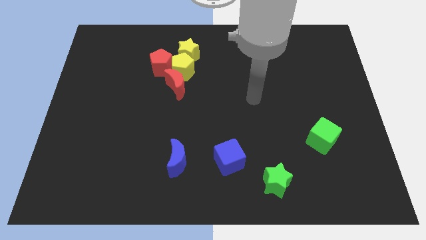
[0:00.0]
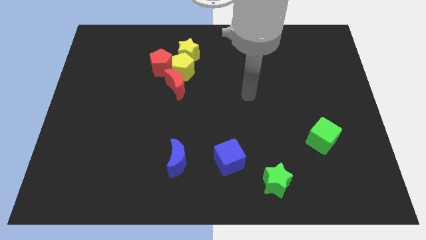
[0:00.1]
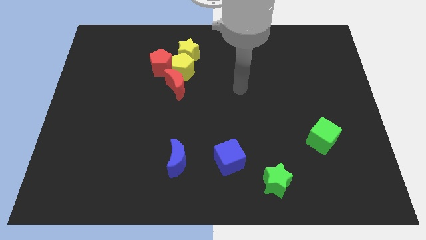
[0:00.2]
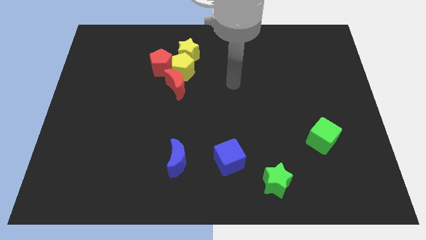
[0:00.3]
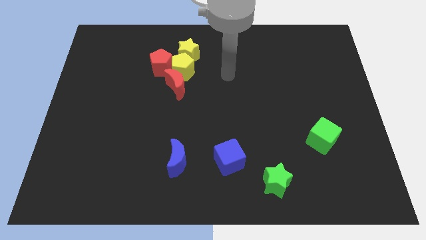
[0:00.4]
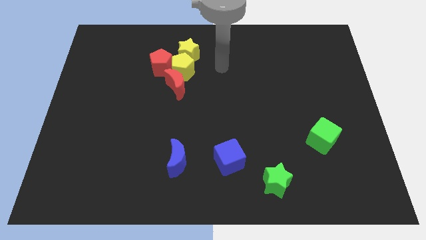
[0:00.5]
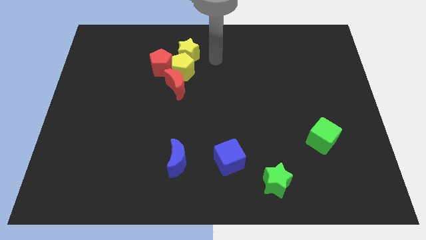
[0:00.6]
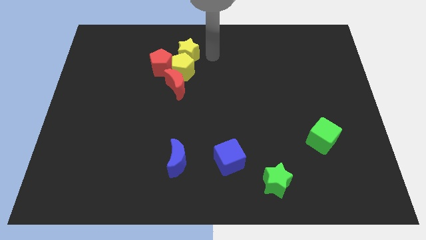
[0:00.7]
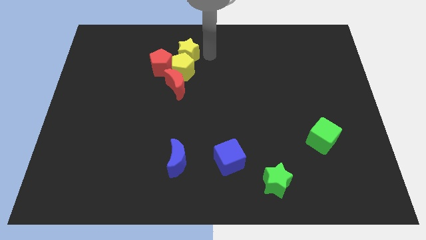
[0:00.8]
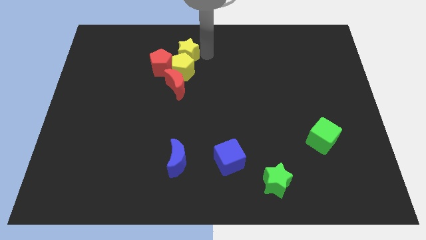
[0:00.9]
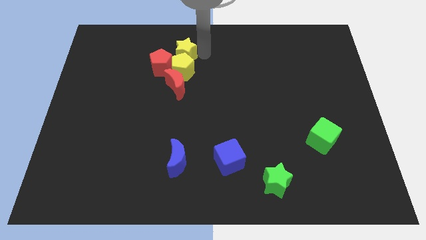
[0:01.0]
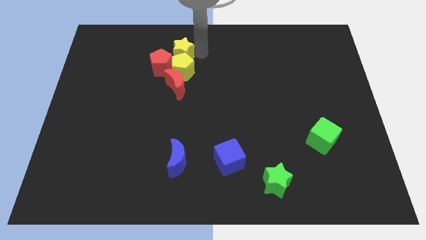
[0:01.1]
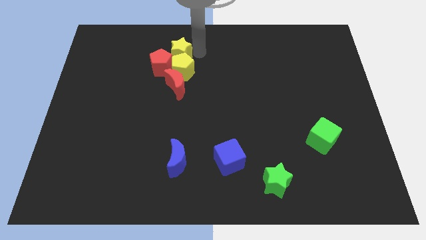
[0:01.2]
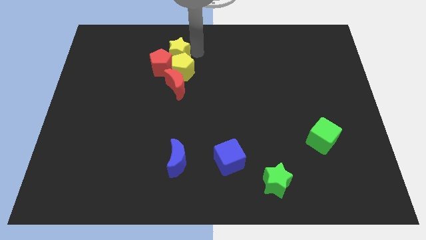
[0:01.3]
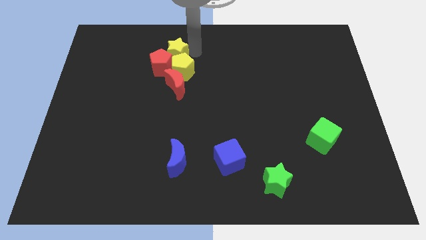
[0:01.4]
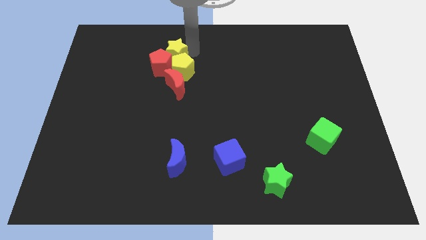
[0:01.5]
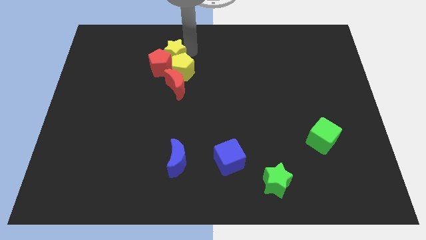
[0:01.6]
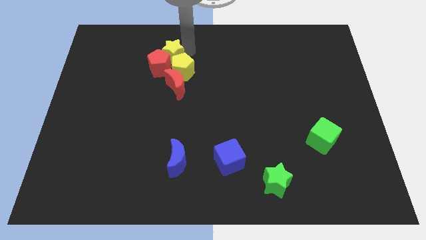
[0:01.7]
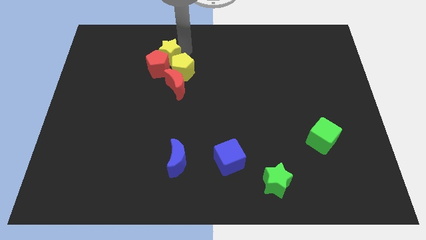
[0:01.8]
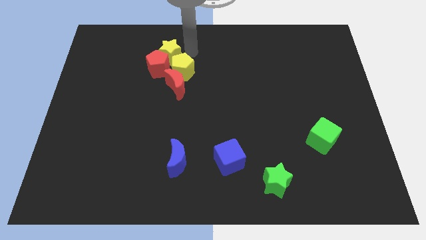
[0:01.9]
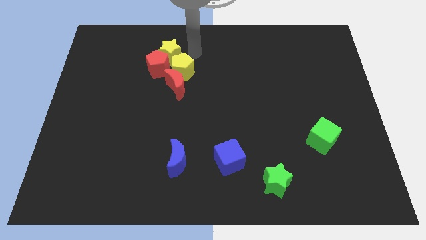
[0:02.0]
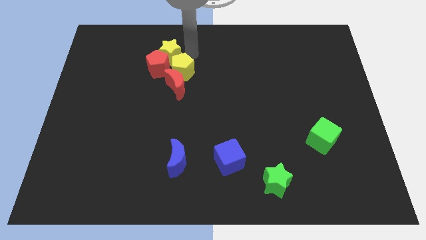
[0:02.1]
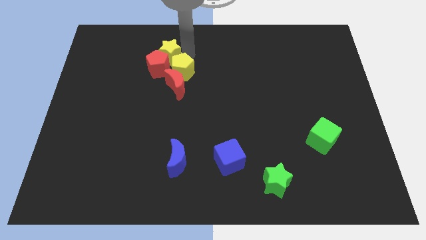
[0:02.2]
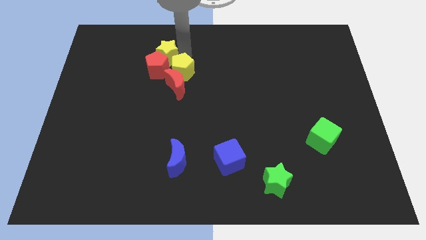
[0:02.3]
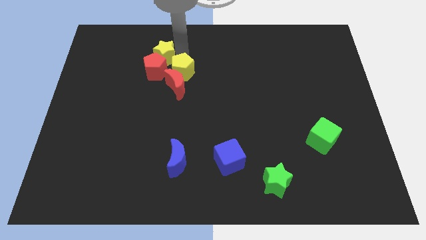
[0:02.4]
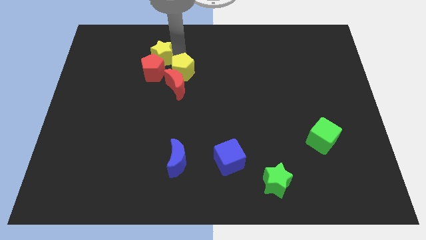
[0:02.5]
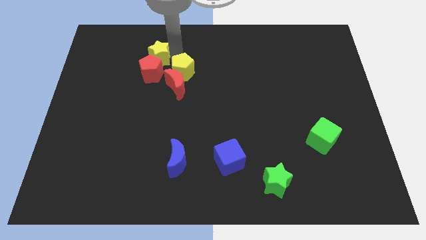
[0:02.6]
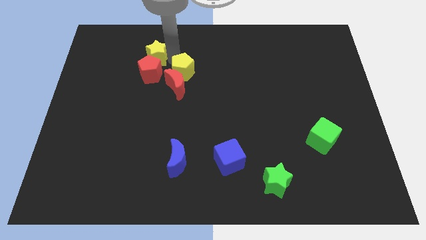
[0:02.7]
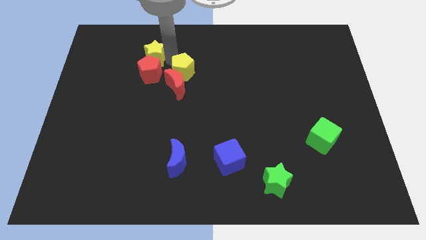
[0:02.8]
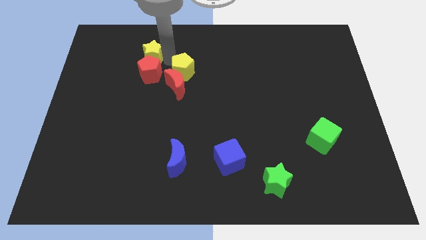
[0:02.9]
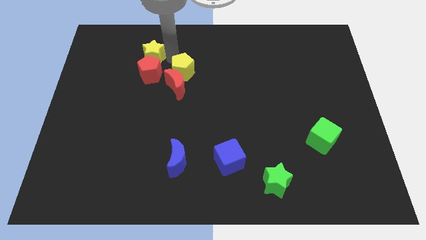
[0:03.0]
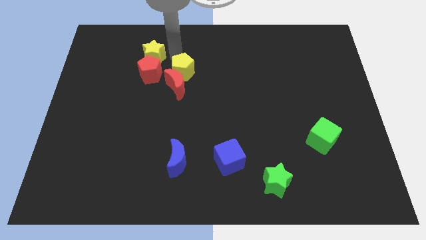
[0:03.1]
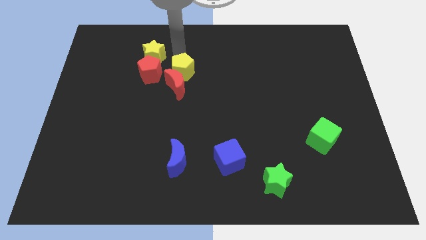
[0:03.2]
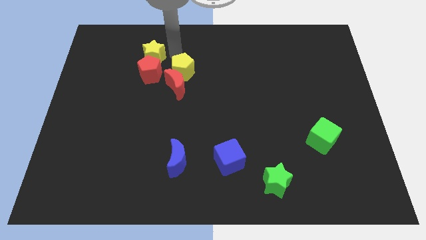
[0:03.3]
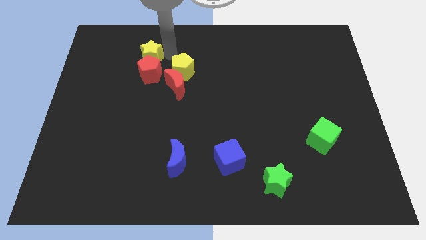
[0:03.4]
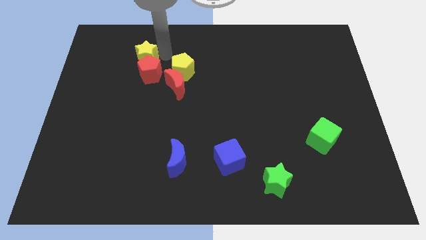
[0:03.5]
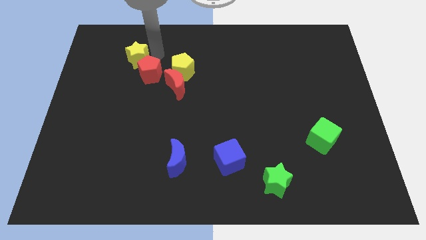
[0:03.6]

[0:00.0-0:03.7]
slightly slide the yellow star downwards and left diagonally

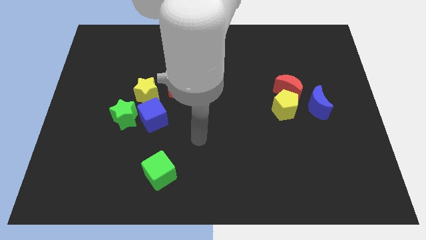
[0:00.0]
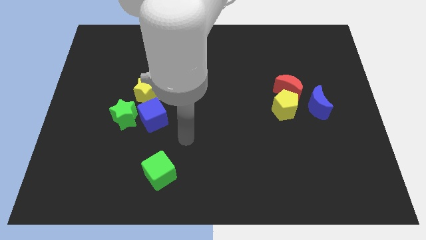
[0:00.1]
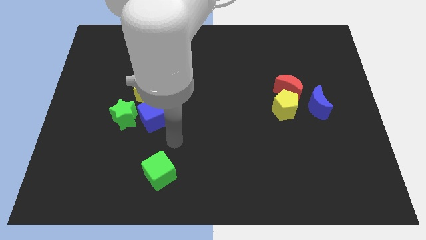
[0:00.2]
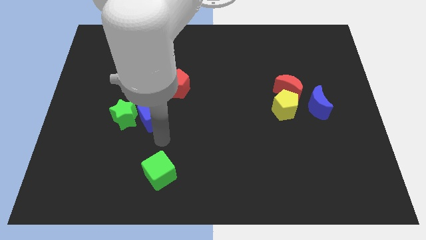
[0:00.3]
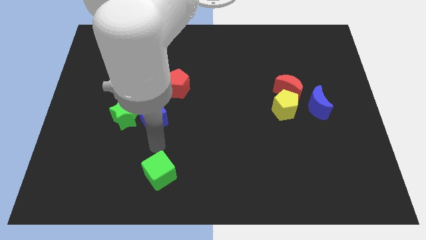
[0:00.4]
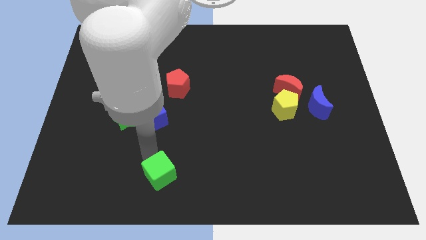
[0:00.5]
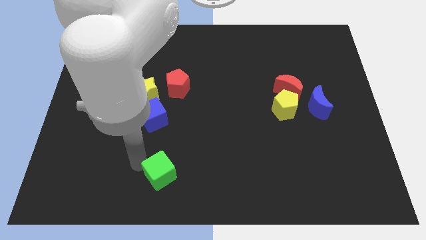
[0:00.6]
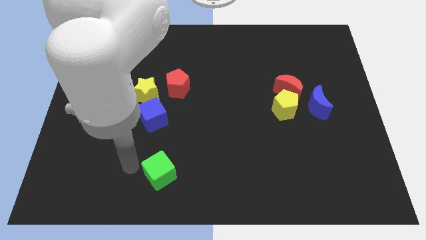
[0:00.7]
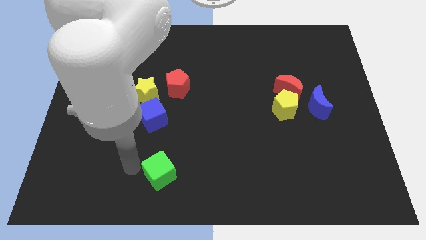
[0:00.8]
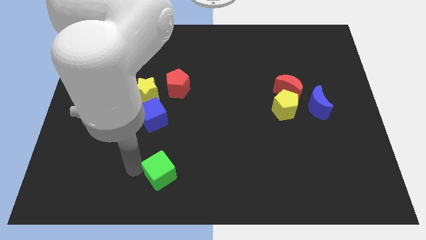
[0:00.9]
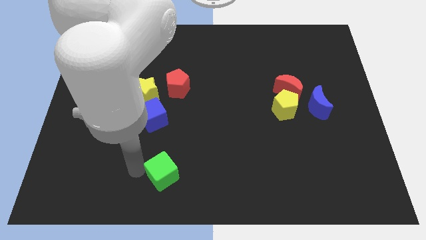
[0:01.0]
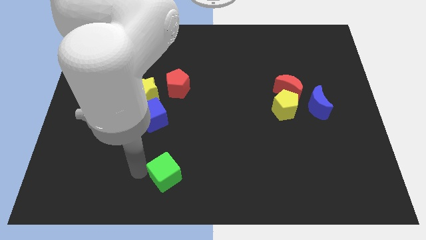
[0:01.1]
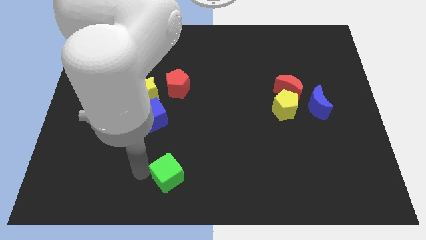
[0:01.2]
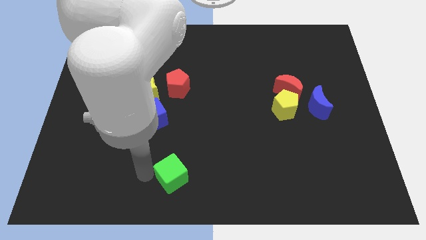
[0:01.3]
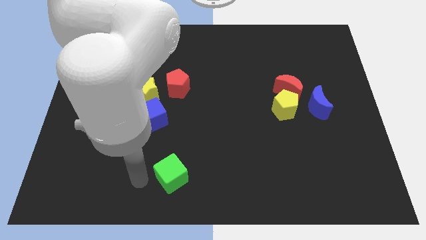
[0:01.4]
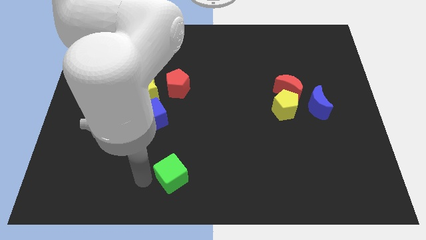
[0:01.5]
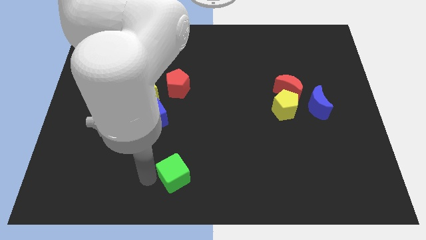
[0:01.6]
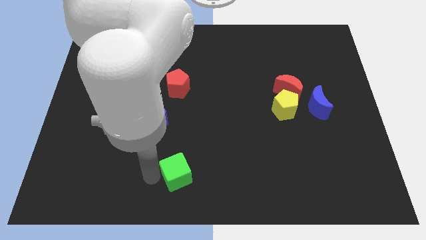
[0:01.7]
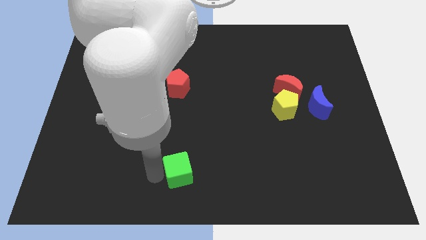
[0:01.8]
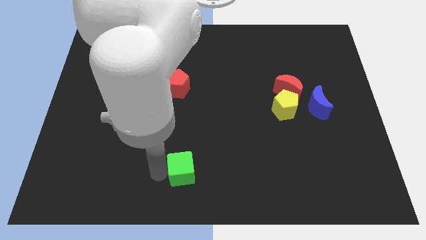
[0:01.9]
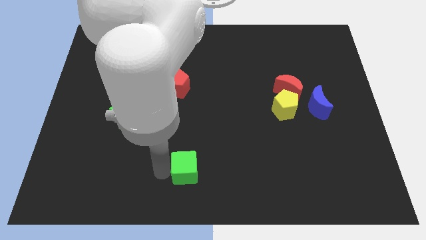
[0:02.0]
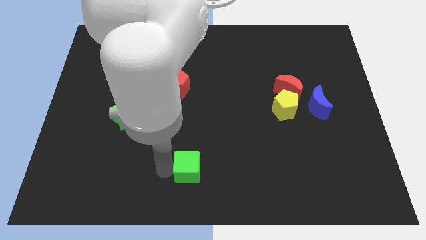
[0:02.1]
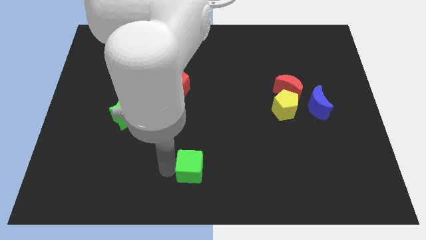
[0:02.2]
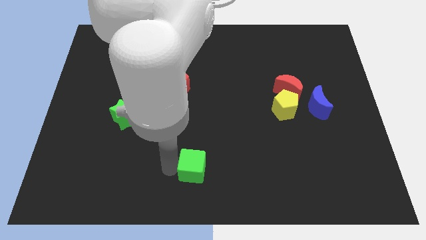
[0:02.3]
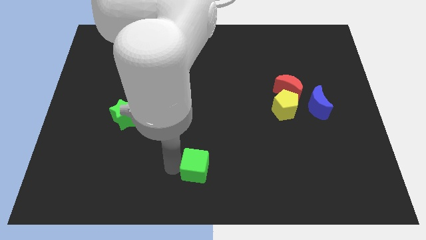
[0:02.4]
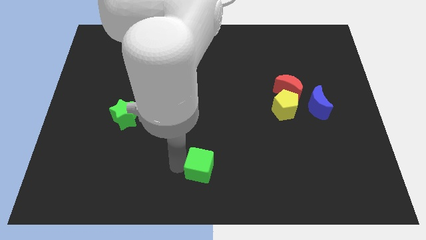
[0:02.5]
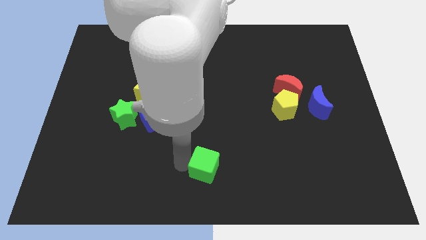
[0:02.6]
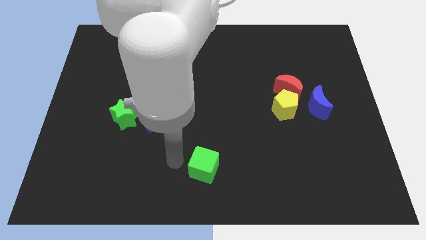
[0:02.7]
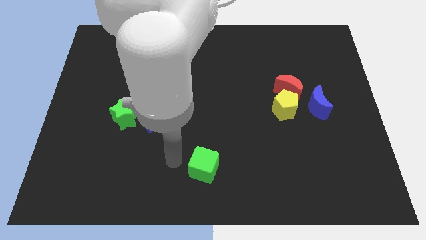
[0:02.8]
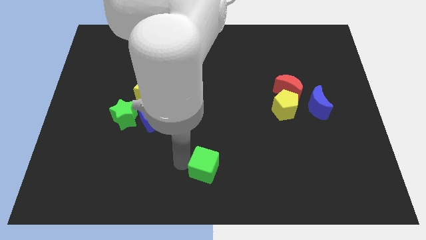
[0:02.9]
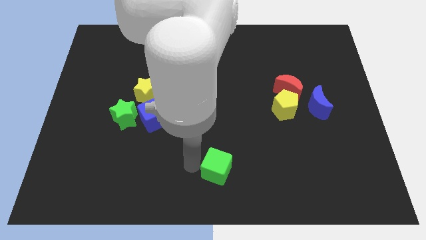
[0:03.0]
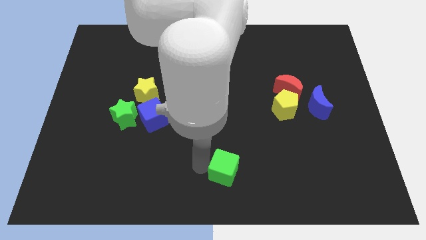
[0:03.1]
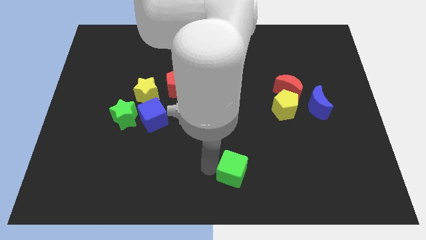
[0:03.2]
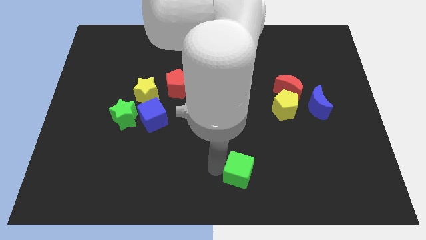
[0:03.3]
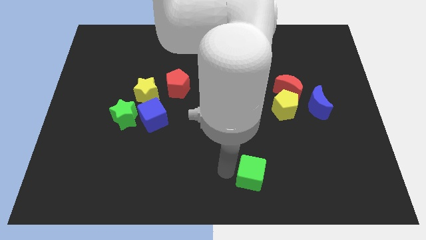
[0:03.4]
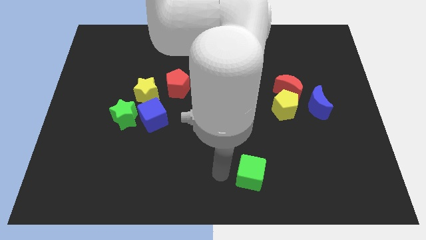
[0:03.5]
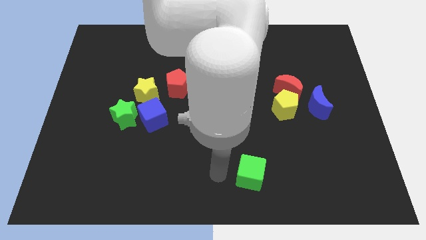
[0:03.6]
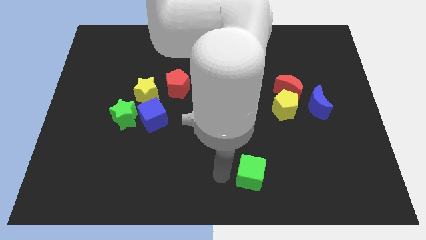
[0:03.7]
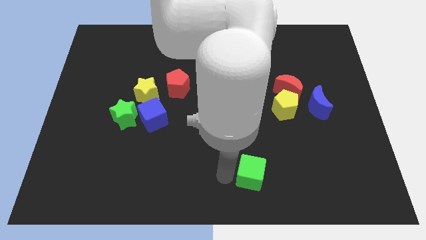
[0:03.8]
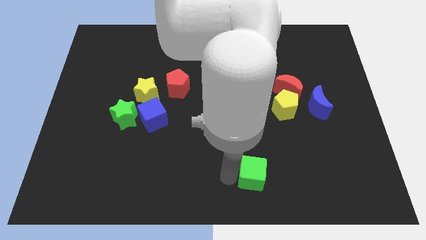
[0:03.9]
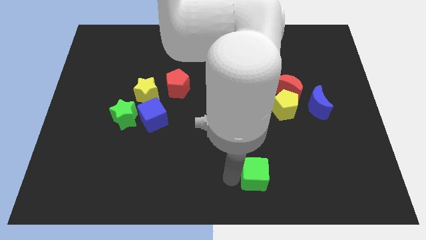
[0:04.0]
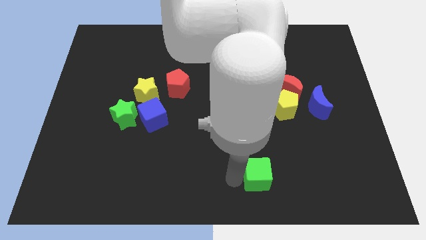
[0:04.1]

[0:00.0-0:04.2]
push the green cube right
